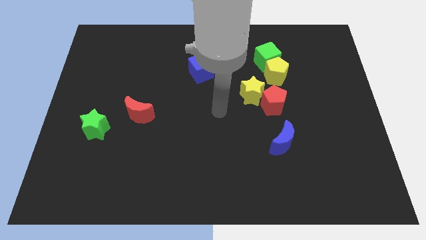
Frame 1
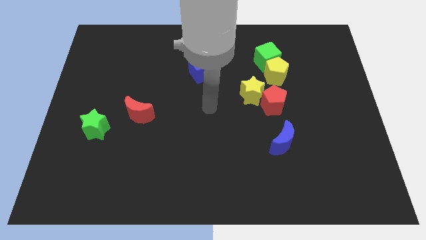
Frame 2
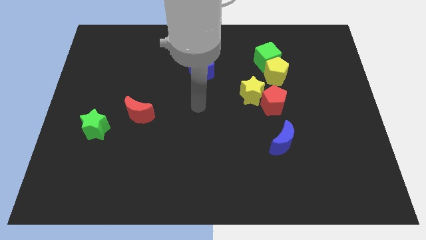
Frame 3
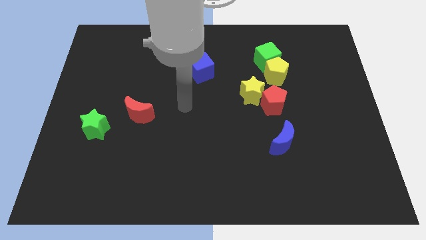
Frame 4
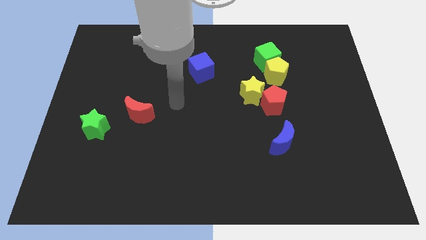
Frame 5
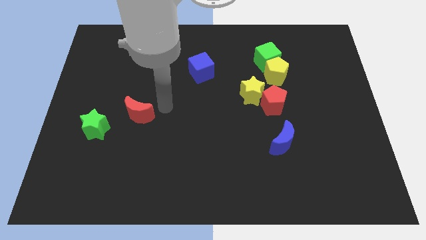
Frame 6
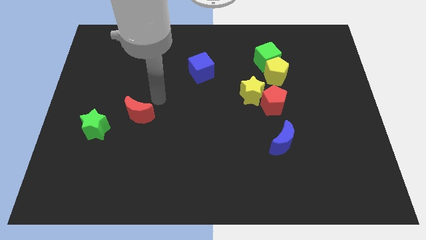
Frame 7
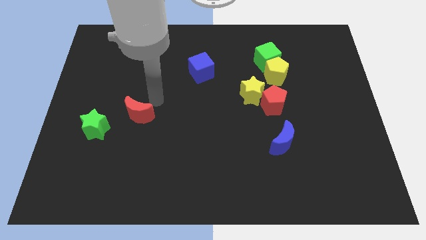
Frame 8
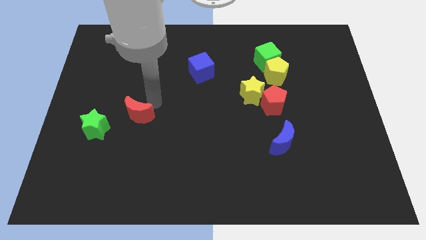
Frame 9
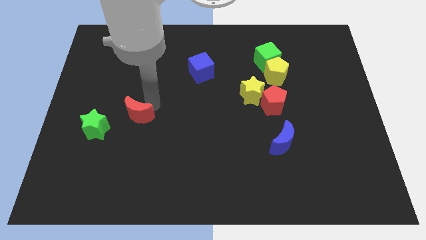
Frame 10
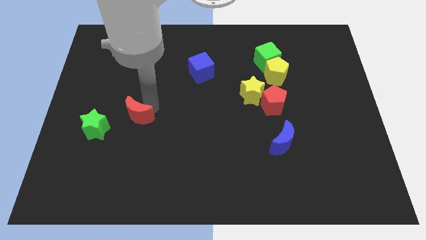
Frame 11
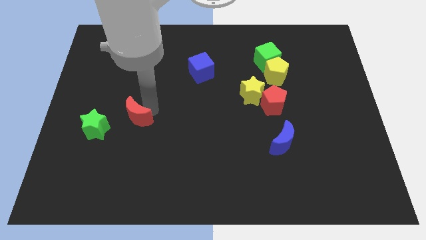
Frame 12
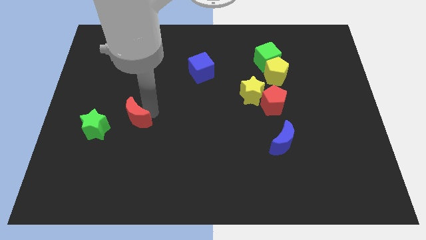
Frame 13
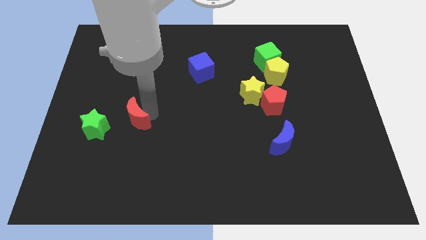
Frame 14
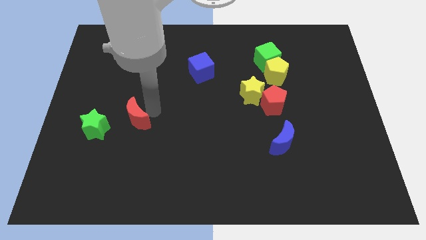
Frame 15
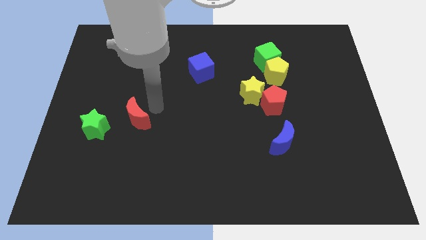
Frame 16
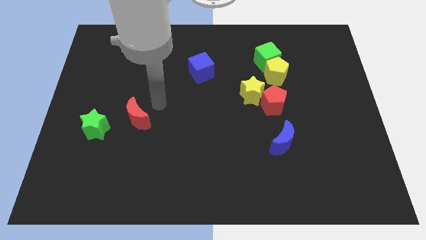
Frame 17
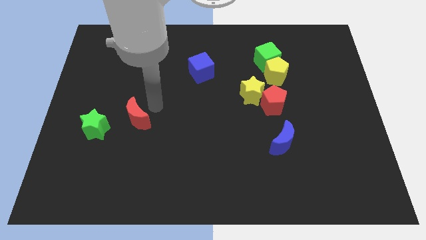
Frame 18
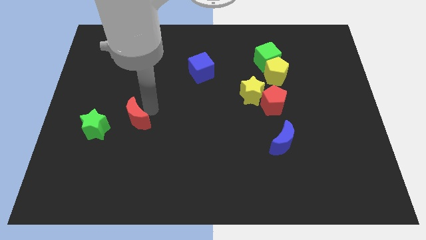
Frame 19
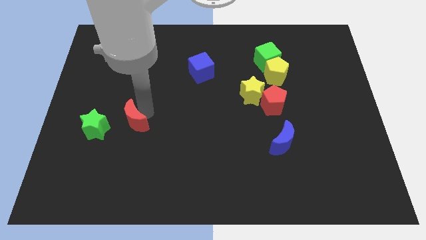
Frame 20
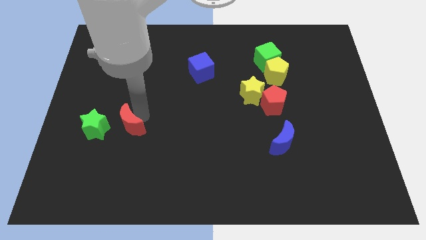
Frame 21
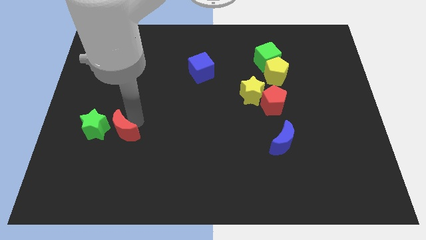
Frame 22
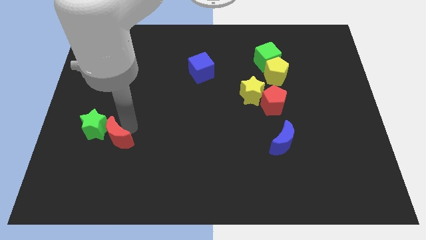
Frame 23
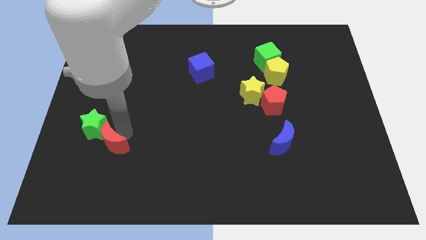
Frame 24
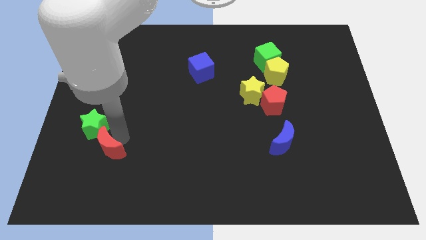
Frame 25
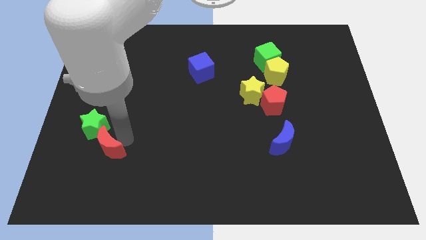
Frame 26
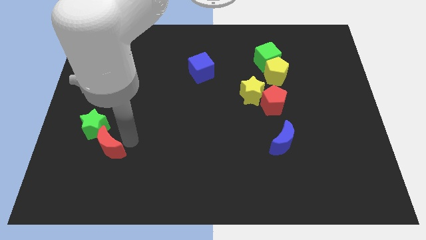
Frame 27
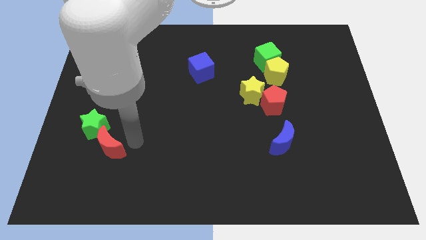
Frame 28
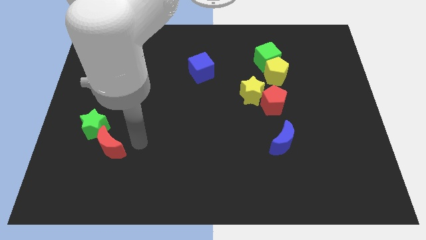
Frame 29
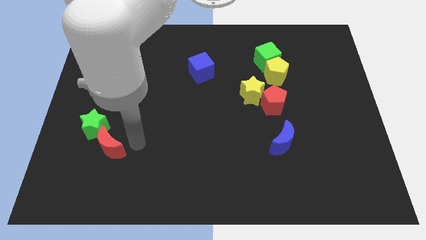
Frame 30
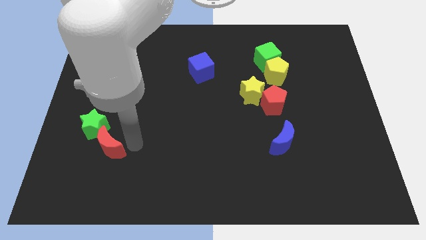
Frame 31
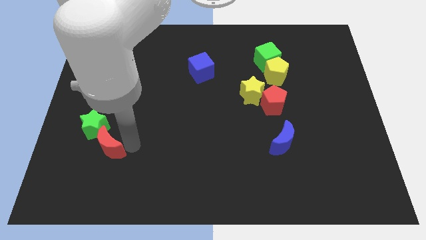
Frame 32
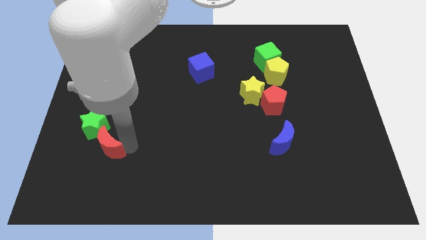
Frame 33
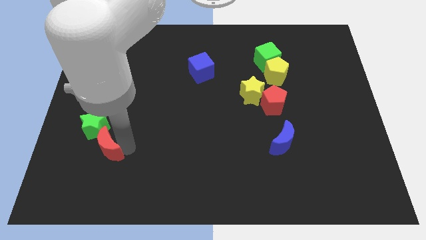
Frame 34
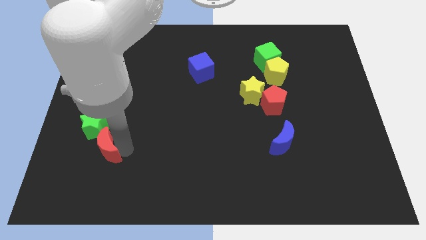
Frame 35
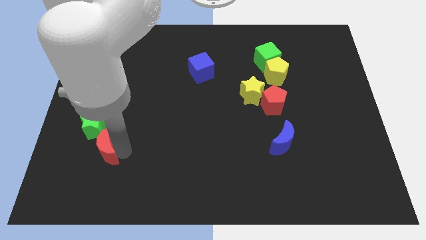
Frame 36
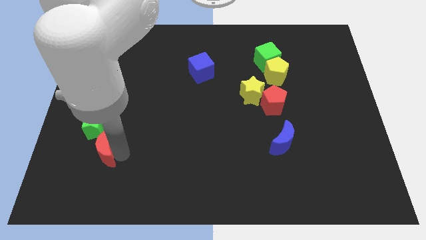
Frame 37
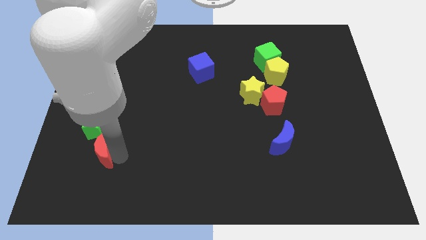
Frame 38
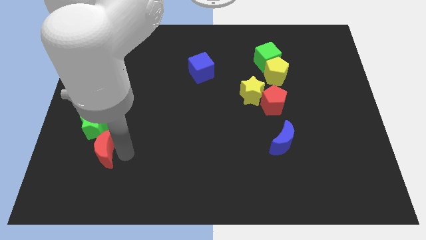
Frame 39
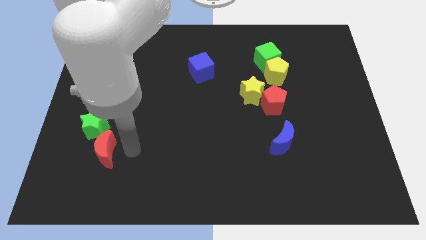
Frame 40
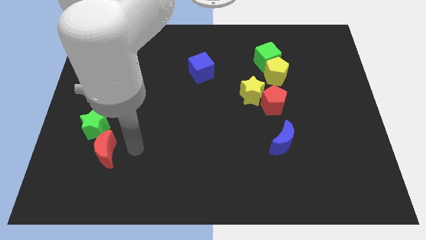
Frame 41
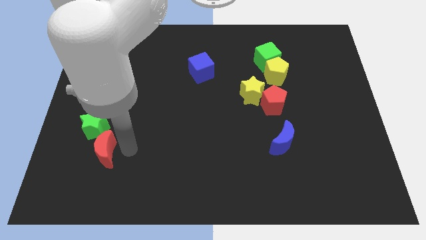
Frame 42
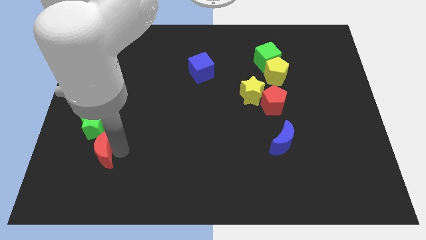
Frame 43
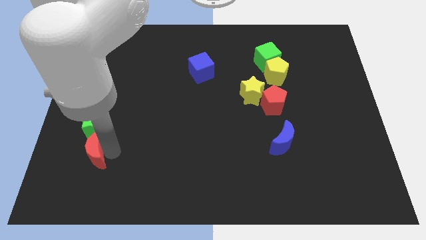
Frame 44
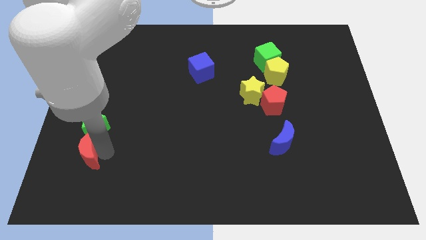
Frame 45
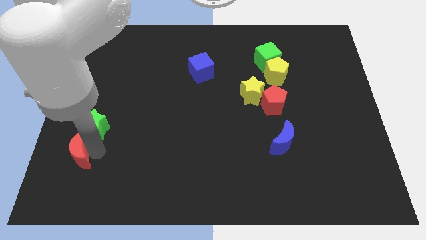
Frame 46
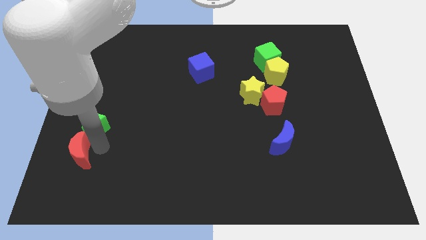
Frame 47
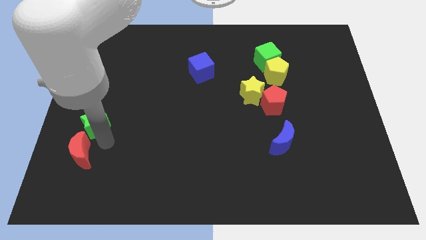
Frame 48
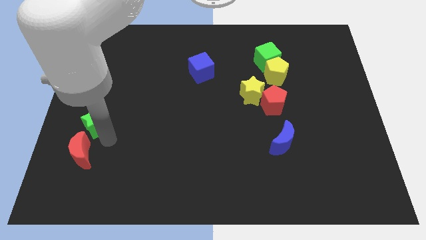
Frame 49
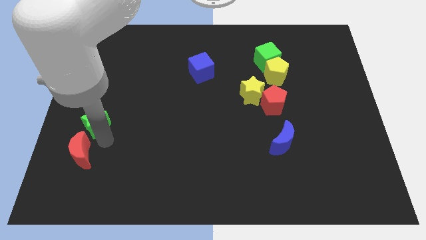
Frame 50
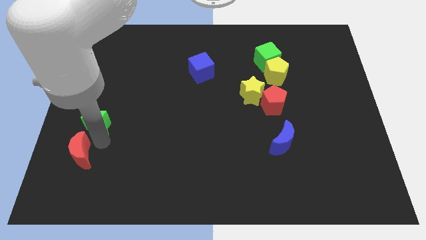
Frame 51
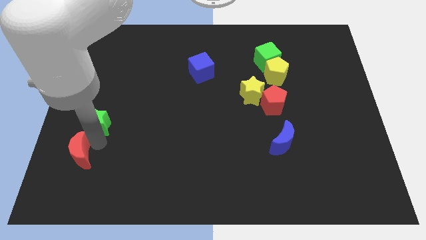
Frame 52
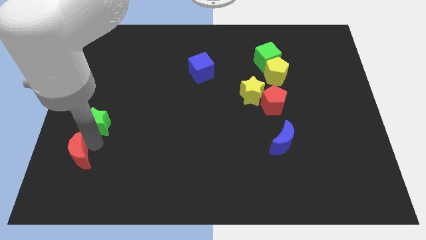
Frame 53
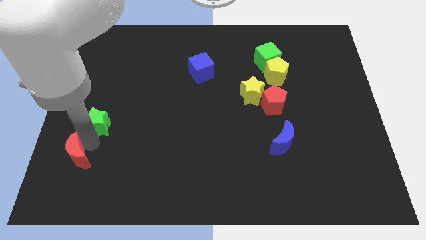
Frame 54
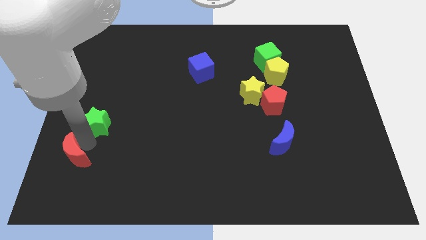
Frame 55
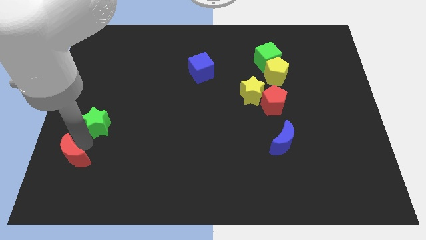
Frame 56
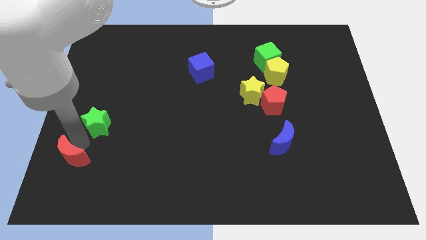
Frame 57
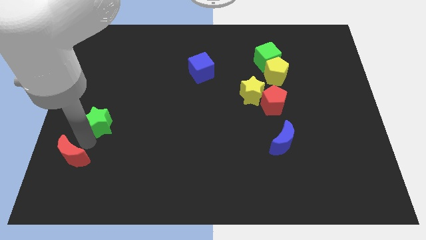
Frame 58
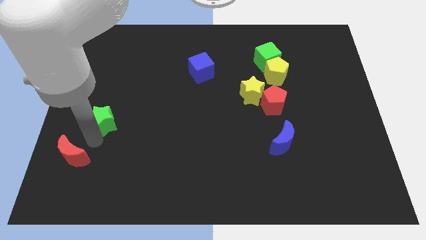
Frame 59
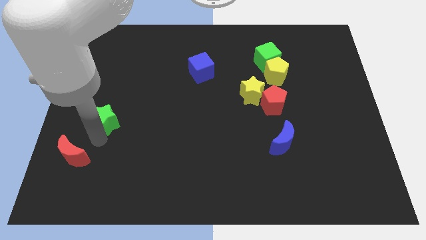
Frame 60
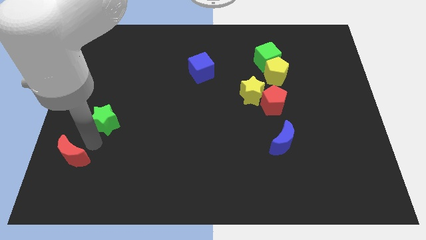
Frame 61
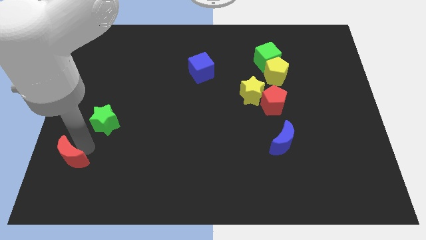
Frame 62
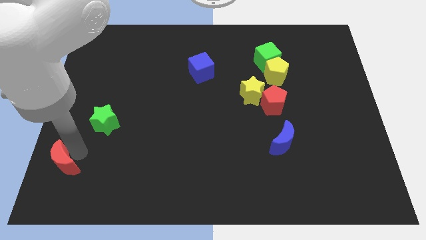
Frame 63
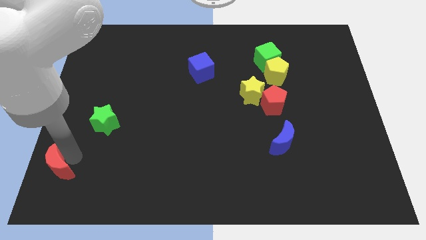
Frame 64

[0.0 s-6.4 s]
push the red moon to the bottom left of the board

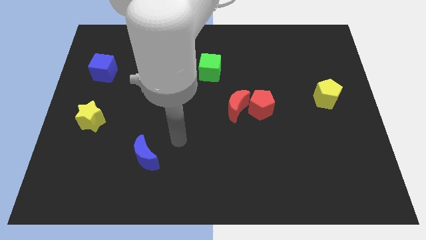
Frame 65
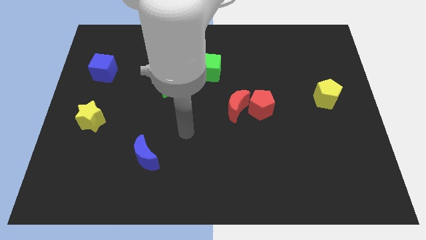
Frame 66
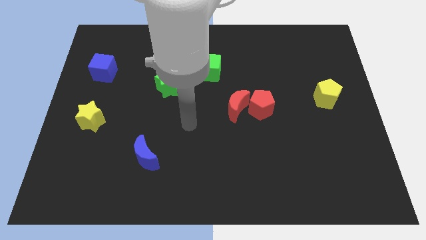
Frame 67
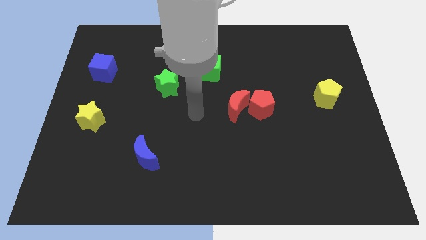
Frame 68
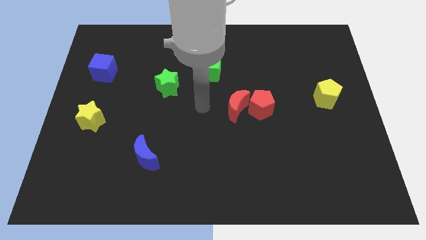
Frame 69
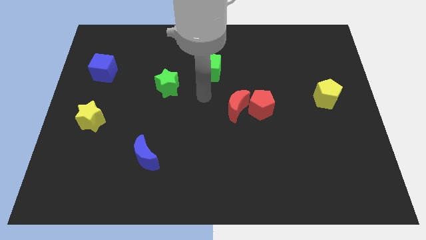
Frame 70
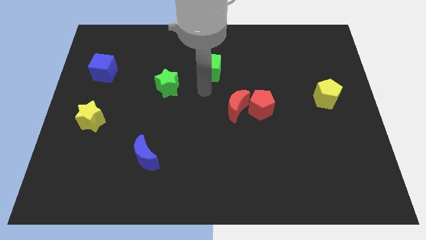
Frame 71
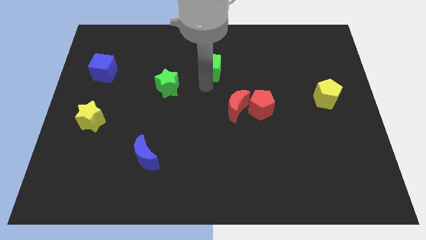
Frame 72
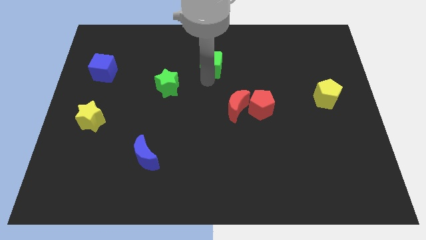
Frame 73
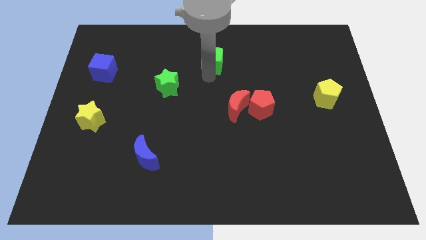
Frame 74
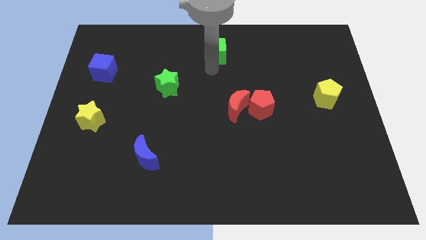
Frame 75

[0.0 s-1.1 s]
move the green cube to the top side
